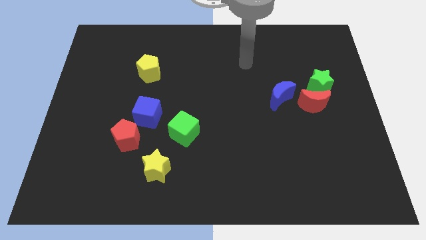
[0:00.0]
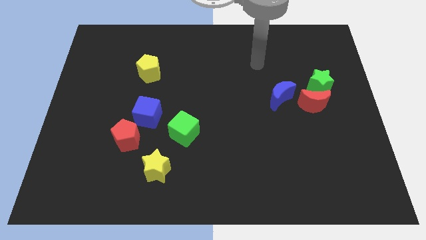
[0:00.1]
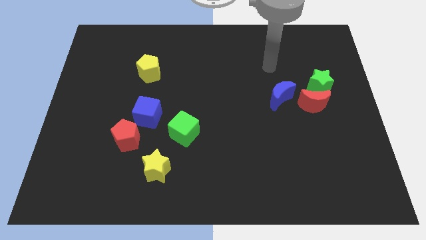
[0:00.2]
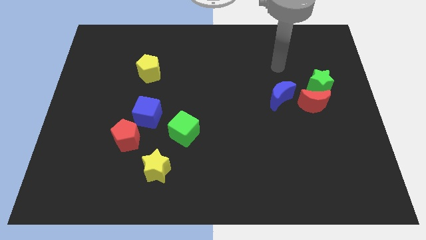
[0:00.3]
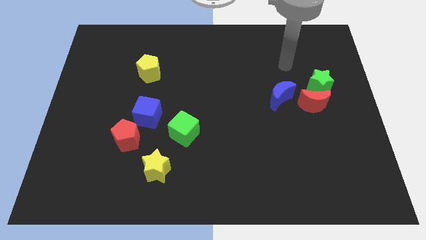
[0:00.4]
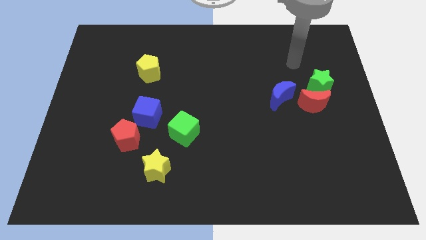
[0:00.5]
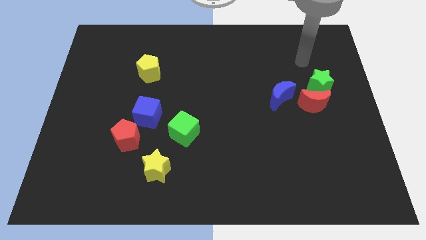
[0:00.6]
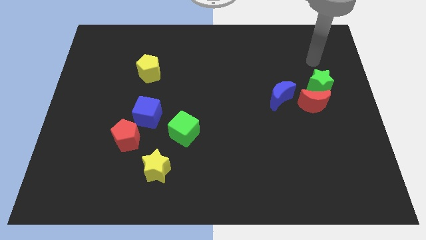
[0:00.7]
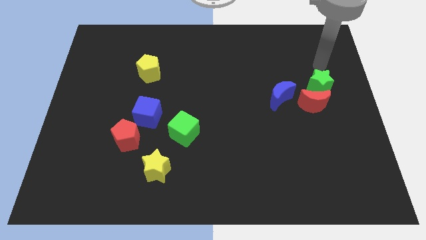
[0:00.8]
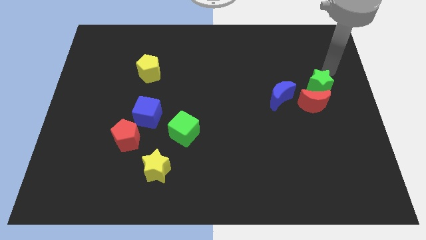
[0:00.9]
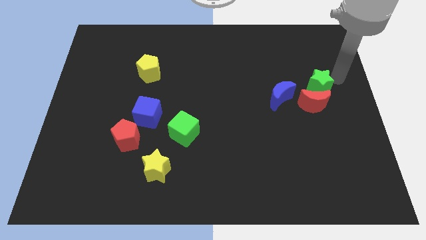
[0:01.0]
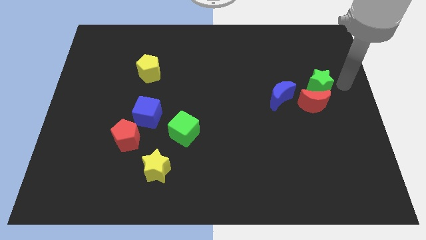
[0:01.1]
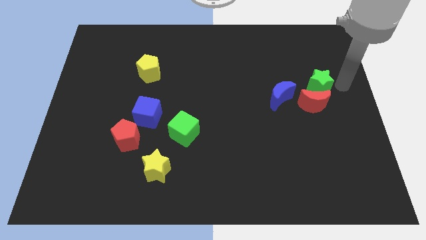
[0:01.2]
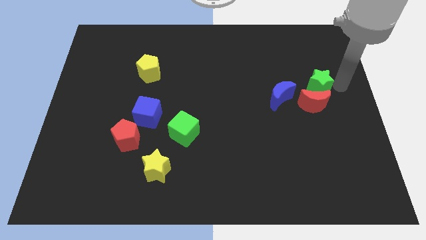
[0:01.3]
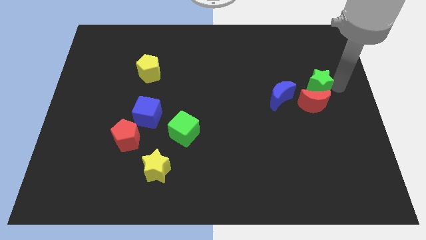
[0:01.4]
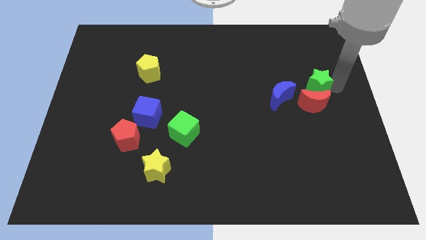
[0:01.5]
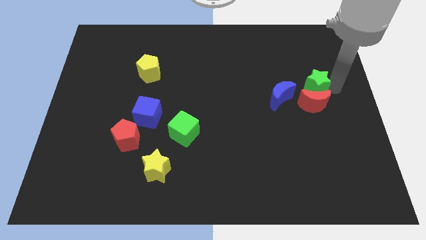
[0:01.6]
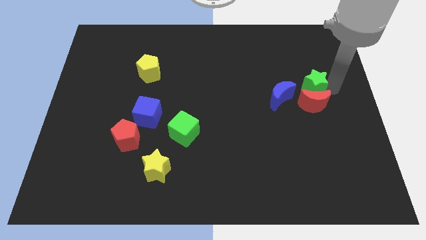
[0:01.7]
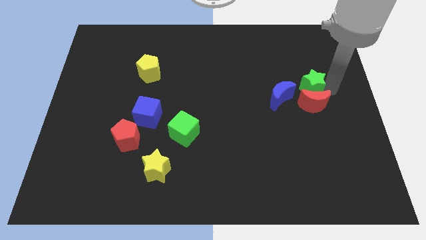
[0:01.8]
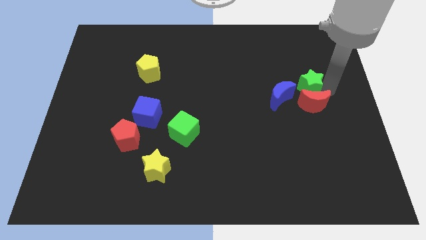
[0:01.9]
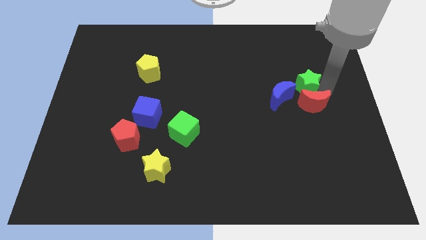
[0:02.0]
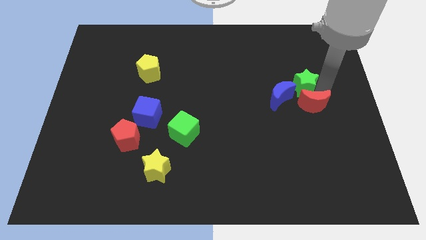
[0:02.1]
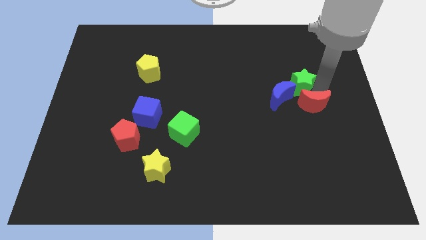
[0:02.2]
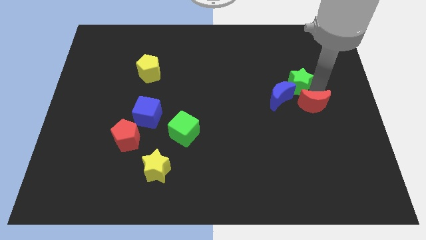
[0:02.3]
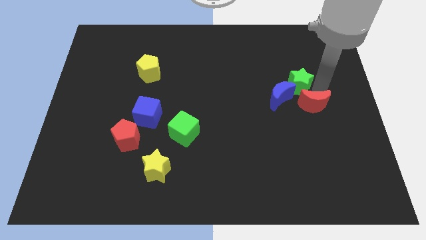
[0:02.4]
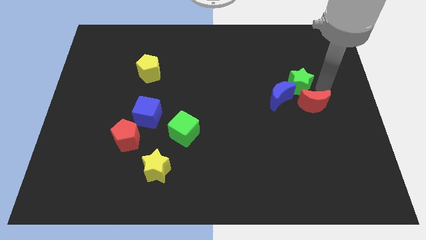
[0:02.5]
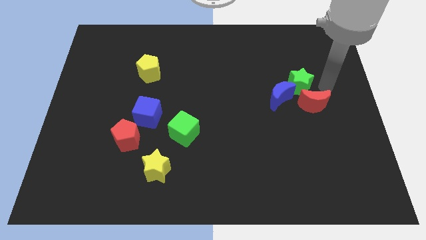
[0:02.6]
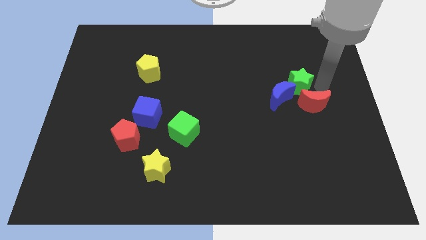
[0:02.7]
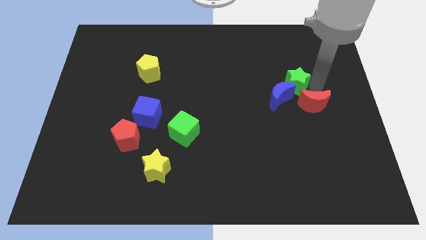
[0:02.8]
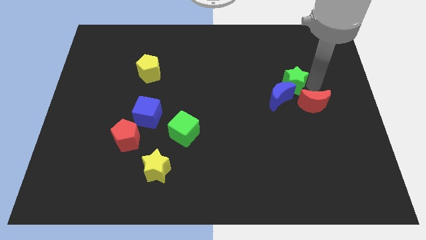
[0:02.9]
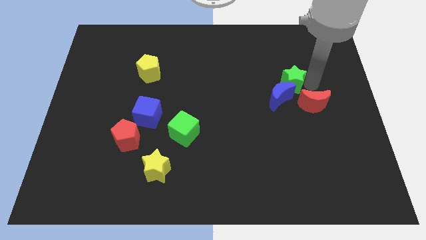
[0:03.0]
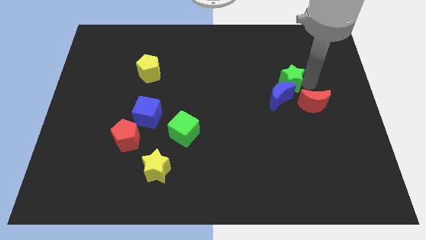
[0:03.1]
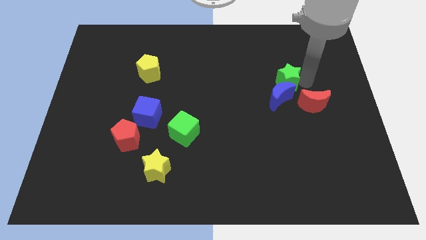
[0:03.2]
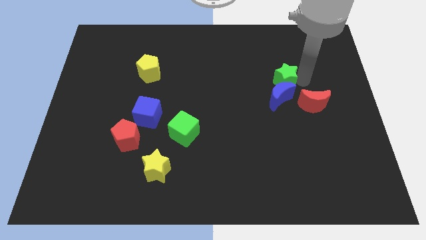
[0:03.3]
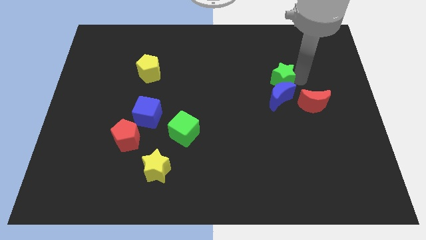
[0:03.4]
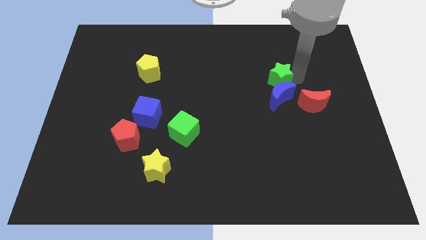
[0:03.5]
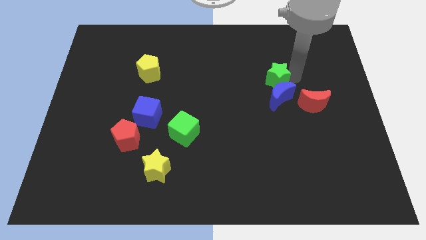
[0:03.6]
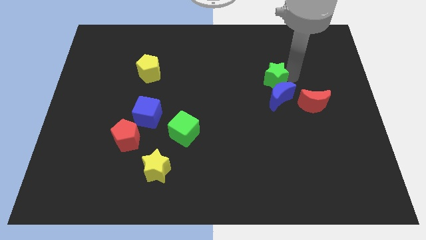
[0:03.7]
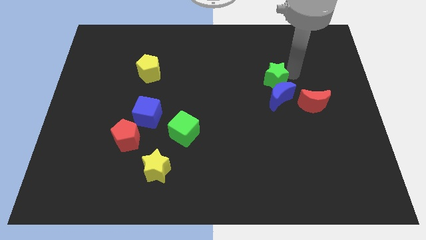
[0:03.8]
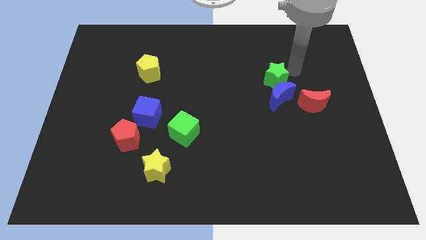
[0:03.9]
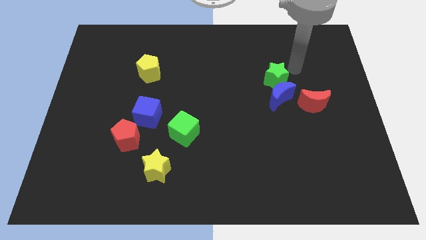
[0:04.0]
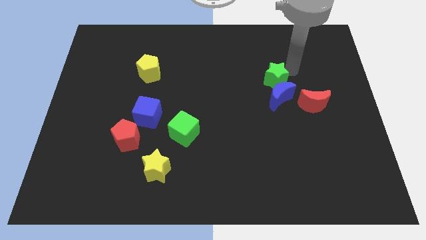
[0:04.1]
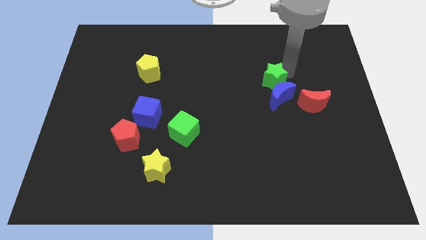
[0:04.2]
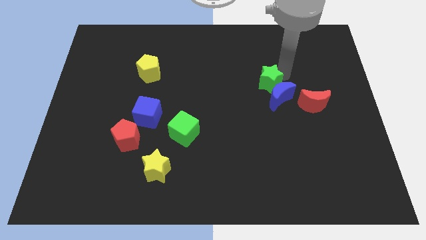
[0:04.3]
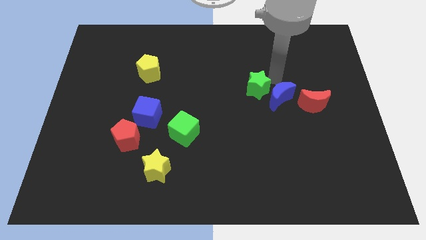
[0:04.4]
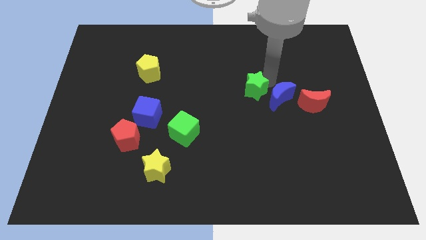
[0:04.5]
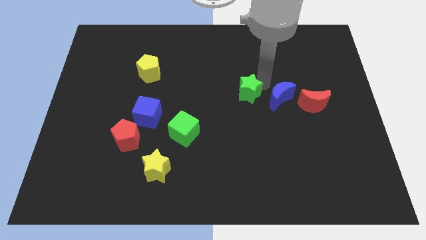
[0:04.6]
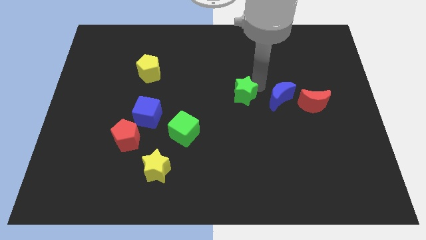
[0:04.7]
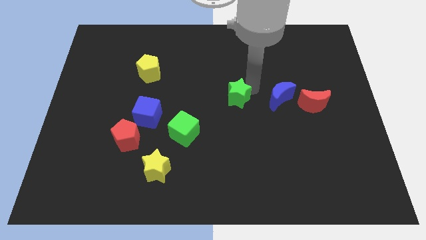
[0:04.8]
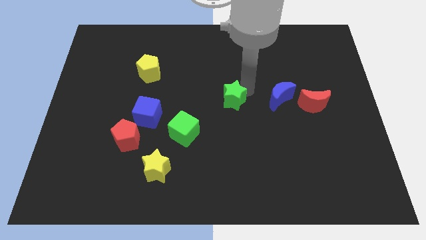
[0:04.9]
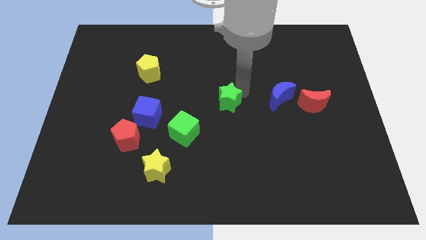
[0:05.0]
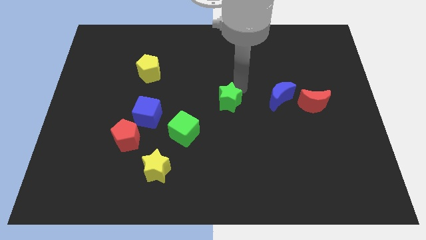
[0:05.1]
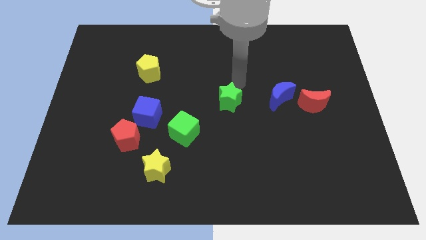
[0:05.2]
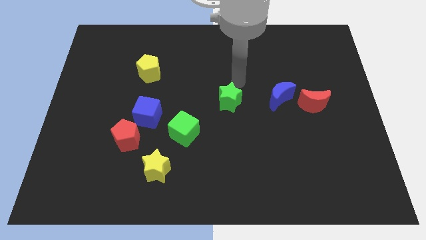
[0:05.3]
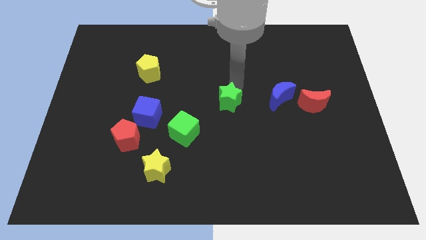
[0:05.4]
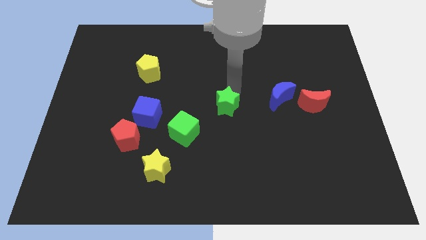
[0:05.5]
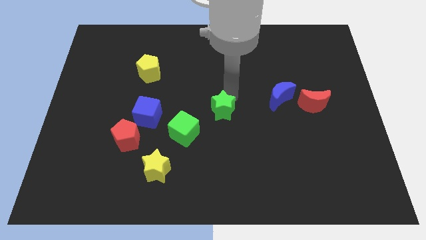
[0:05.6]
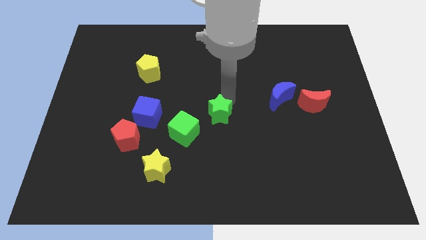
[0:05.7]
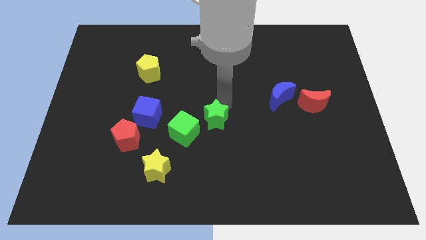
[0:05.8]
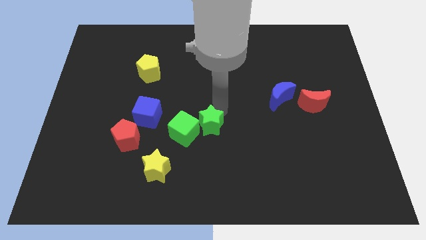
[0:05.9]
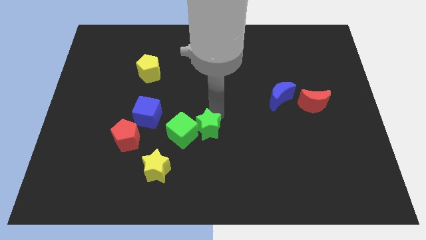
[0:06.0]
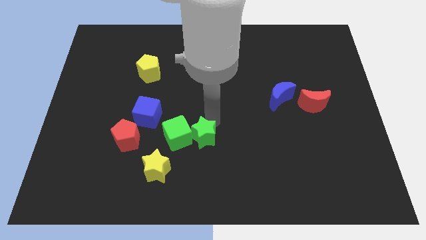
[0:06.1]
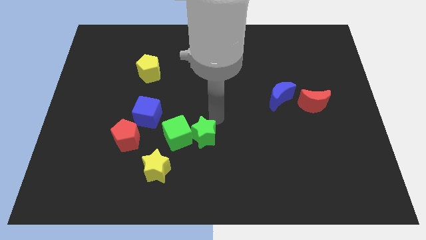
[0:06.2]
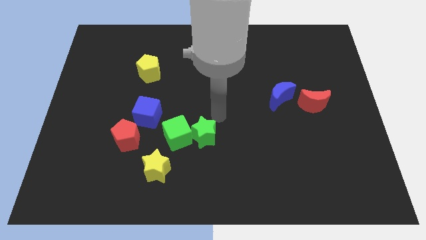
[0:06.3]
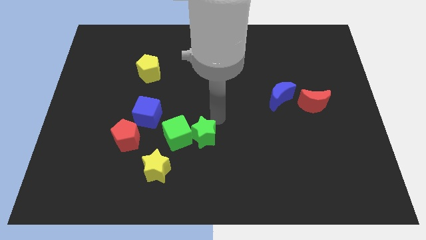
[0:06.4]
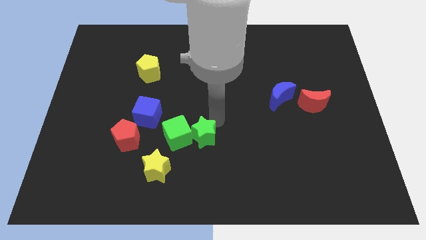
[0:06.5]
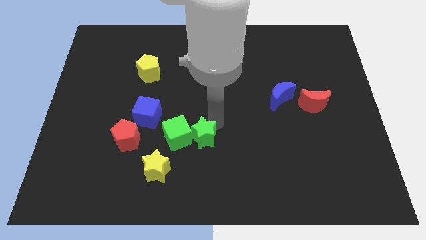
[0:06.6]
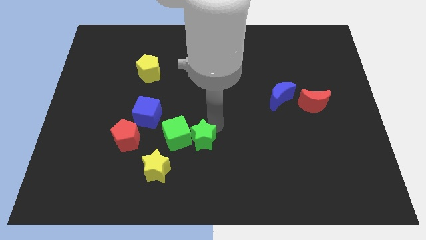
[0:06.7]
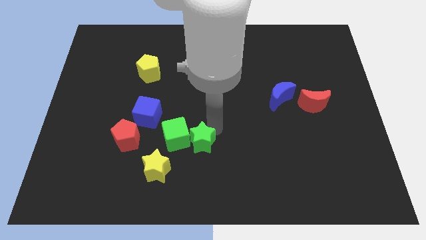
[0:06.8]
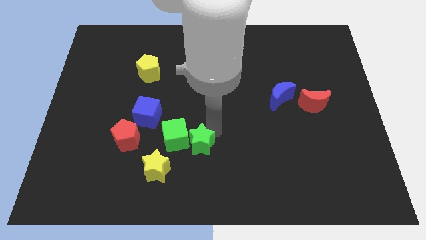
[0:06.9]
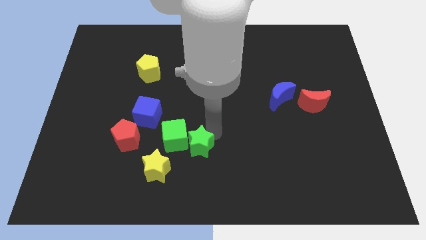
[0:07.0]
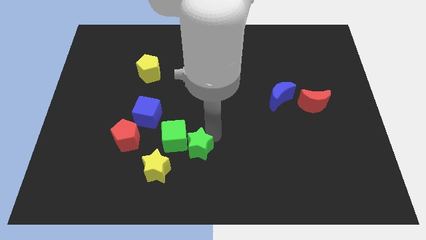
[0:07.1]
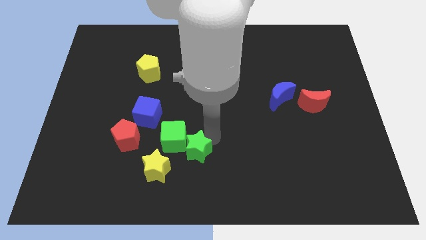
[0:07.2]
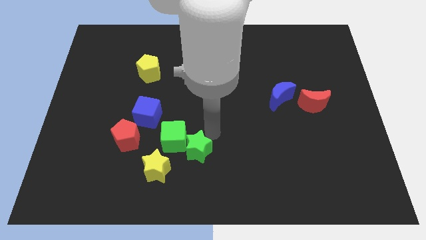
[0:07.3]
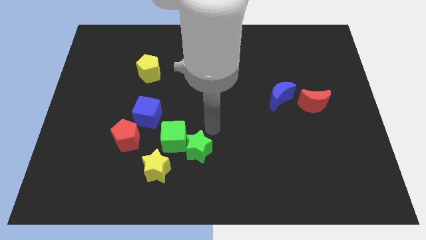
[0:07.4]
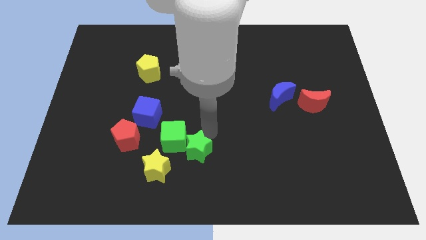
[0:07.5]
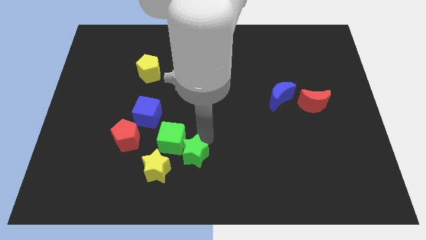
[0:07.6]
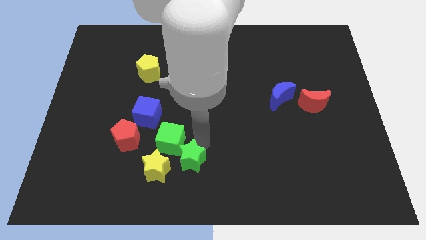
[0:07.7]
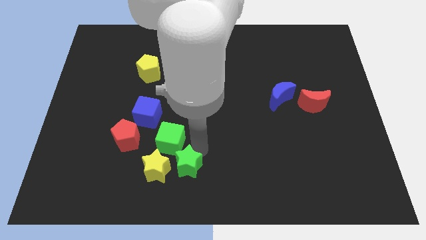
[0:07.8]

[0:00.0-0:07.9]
push the green star towards the yellow star
